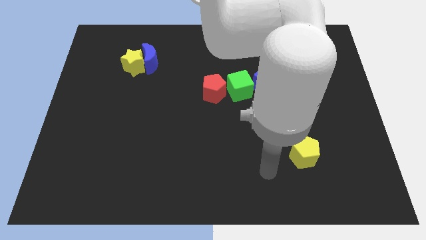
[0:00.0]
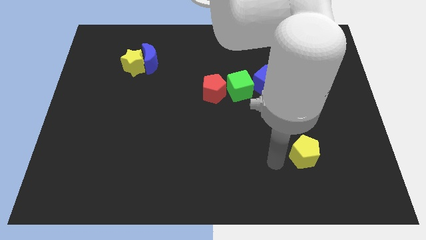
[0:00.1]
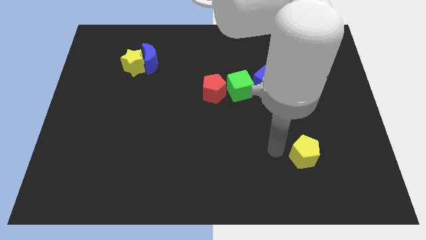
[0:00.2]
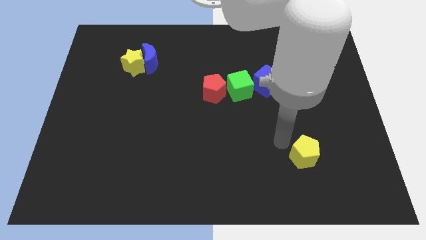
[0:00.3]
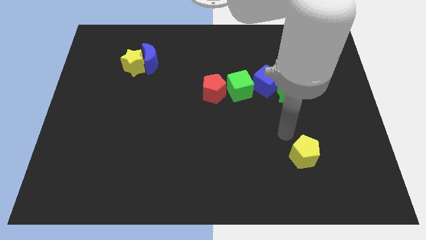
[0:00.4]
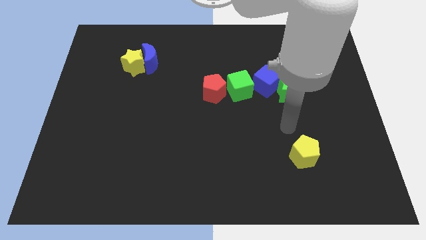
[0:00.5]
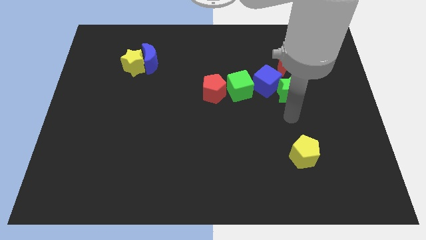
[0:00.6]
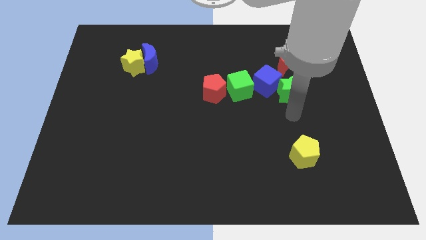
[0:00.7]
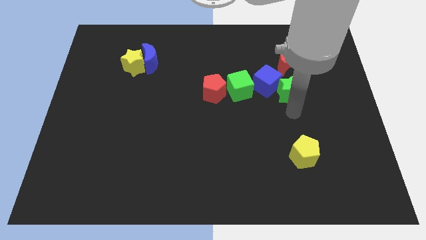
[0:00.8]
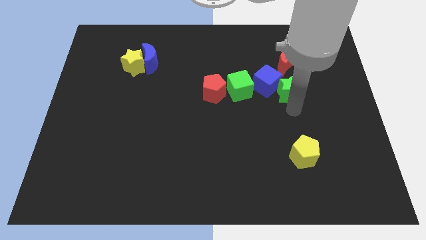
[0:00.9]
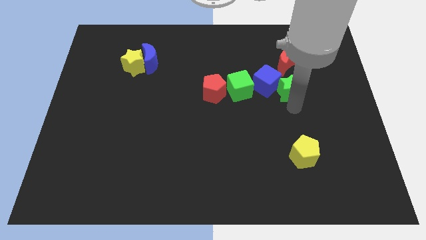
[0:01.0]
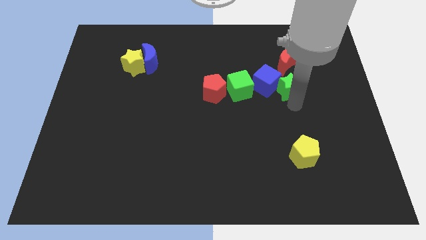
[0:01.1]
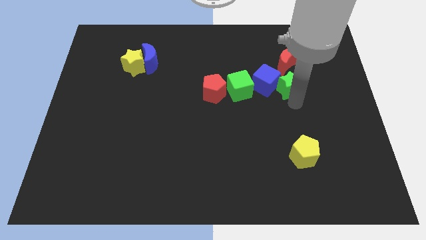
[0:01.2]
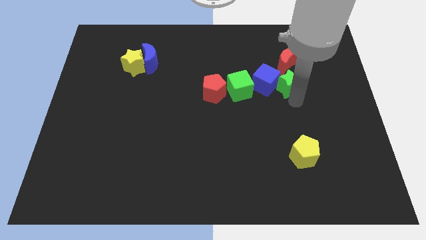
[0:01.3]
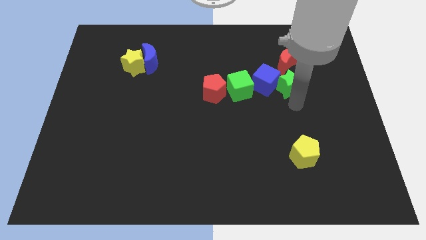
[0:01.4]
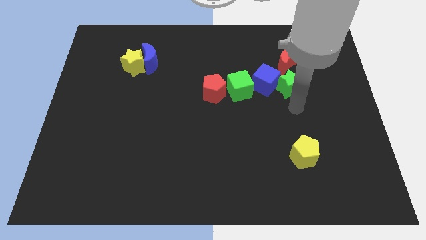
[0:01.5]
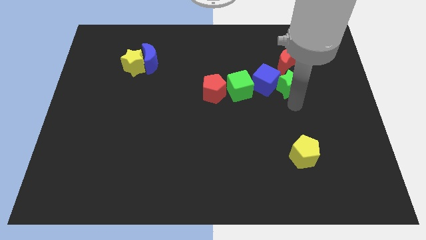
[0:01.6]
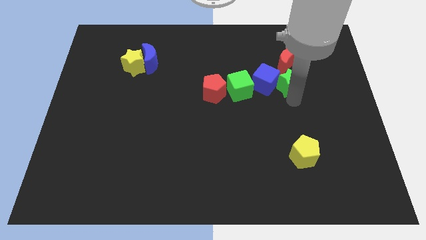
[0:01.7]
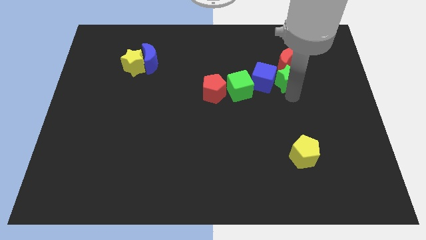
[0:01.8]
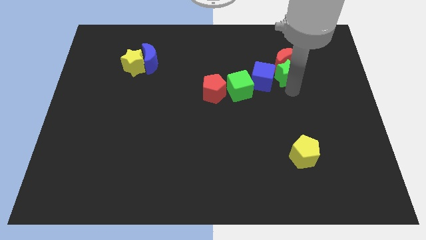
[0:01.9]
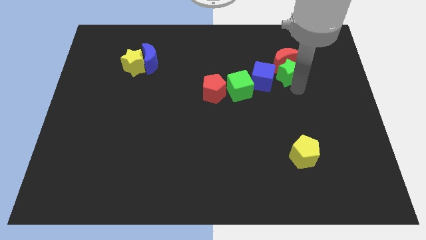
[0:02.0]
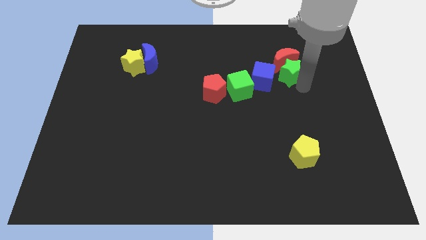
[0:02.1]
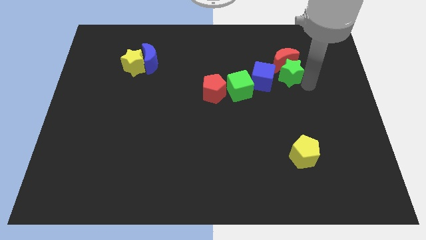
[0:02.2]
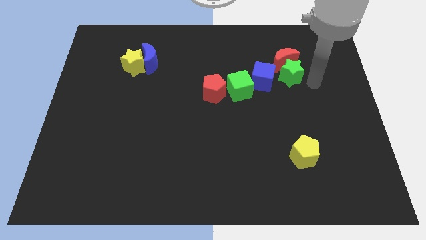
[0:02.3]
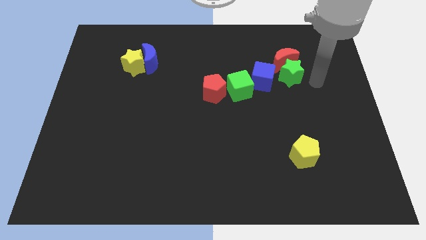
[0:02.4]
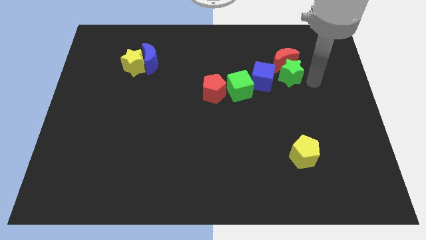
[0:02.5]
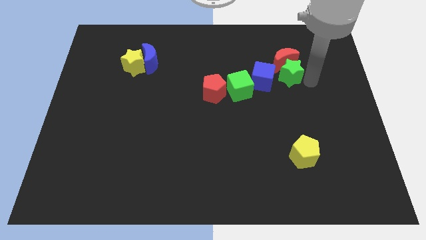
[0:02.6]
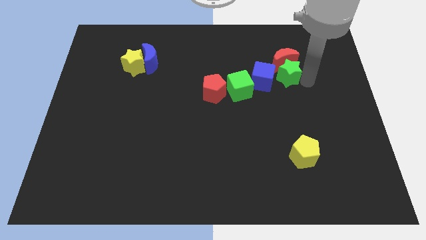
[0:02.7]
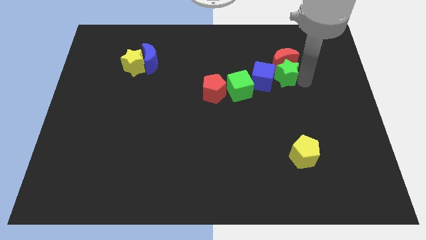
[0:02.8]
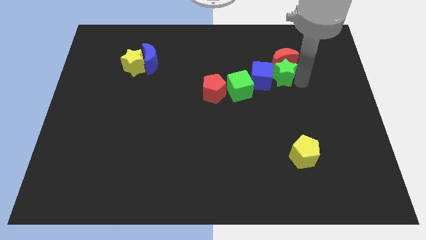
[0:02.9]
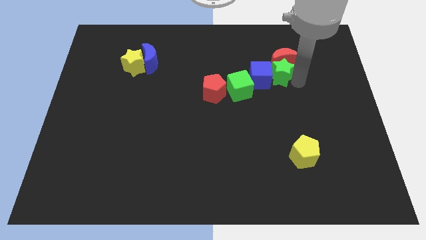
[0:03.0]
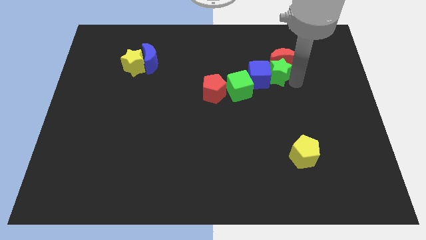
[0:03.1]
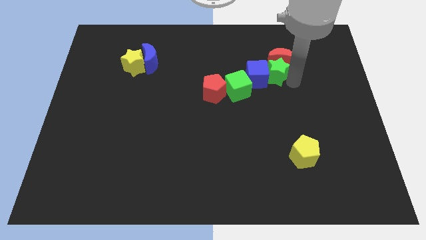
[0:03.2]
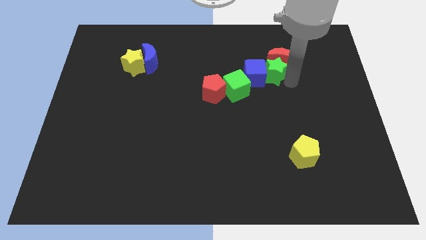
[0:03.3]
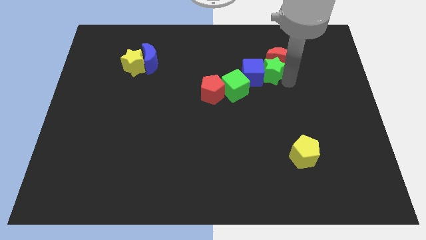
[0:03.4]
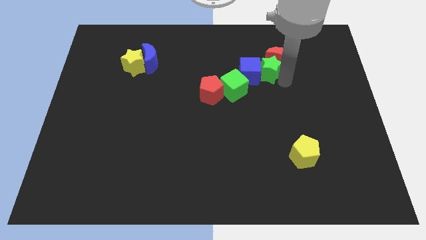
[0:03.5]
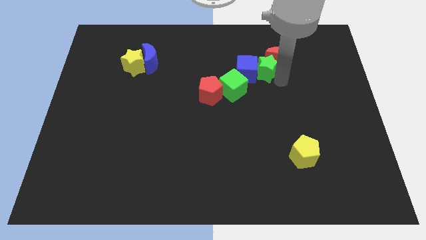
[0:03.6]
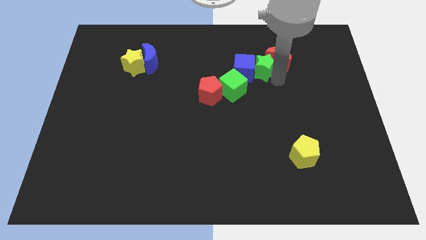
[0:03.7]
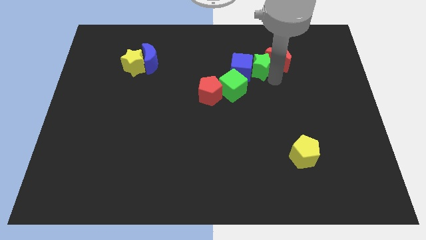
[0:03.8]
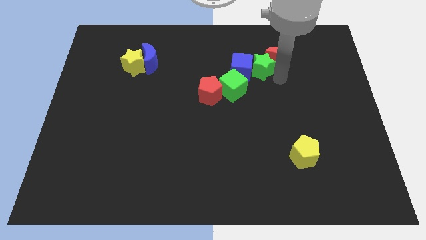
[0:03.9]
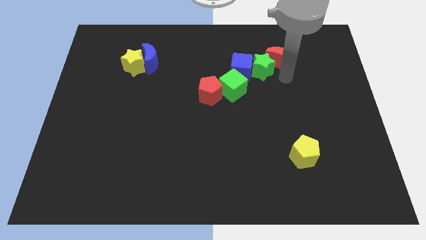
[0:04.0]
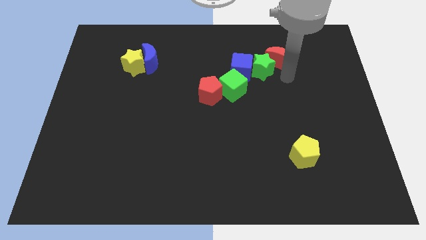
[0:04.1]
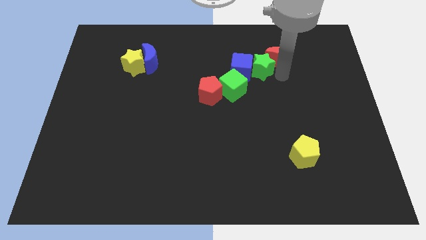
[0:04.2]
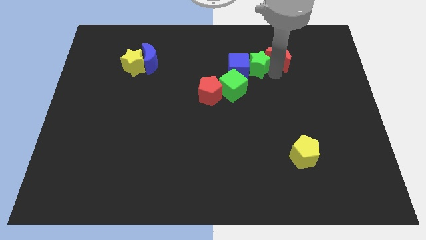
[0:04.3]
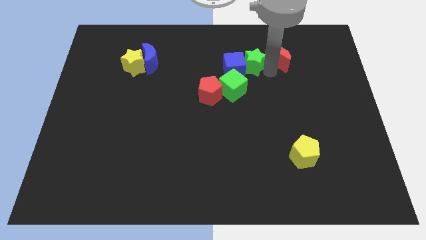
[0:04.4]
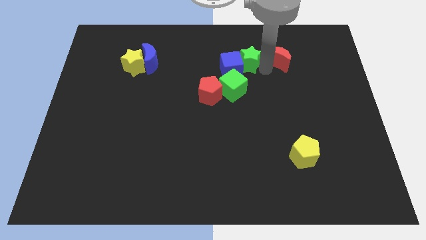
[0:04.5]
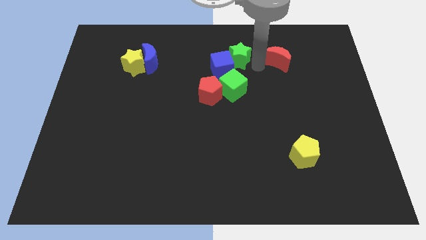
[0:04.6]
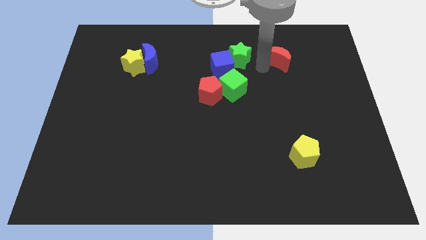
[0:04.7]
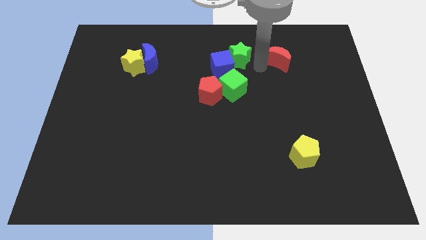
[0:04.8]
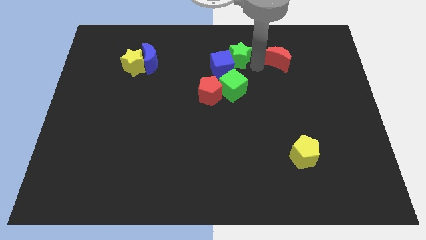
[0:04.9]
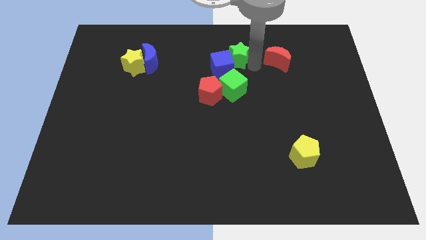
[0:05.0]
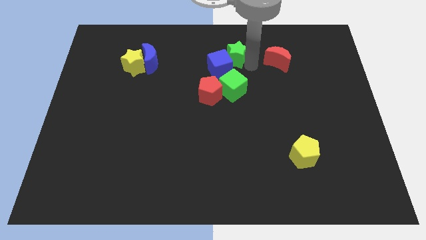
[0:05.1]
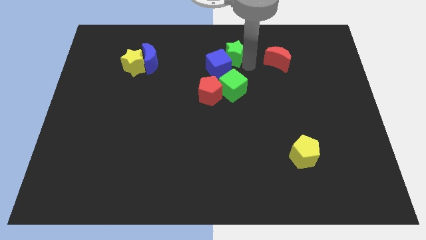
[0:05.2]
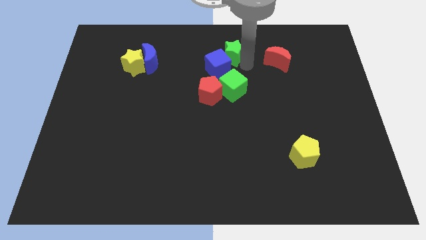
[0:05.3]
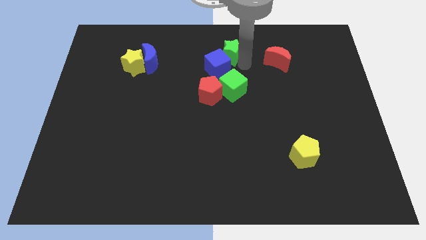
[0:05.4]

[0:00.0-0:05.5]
move the green star to the top side

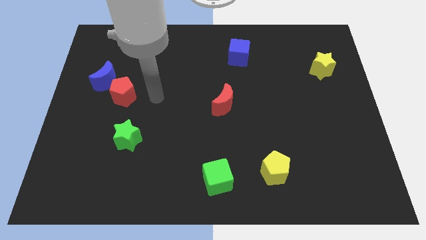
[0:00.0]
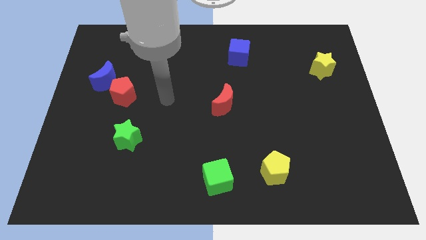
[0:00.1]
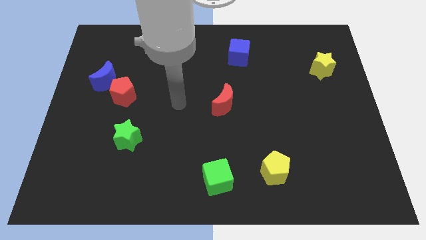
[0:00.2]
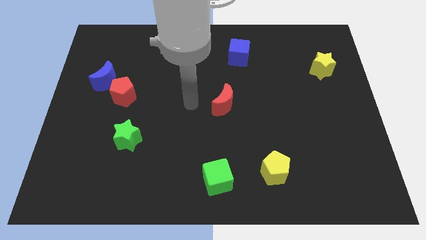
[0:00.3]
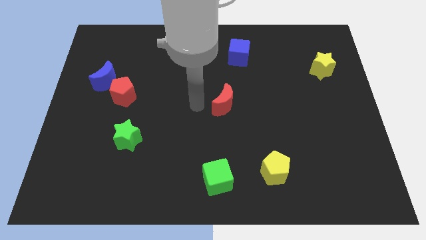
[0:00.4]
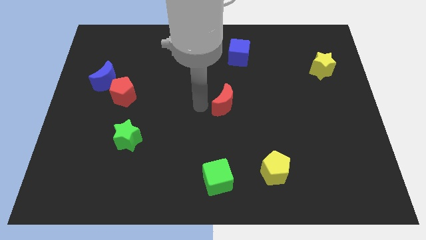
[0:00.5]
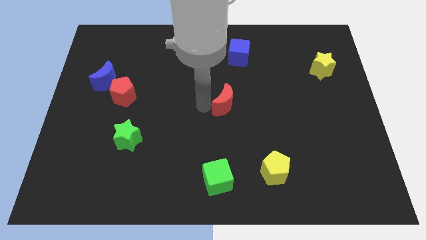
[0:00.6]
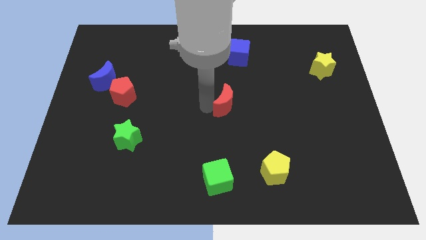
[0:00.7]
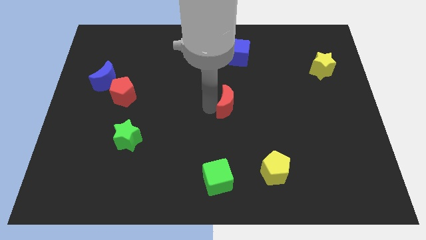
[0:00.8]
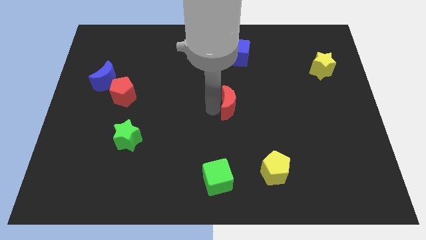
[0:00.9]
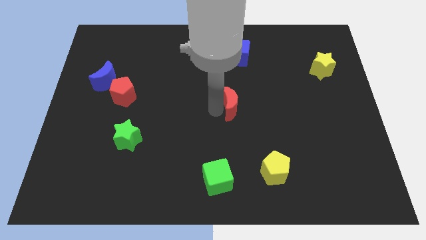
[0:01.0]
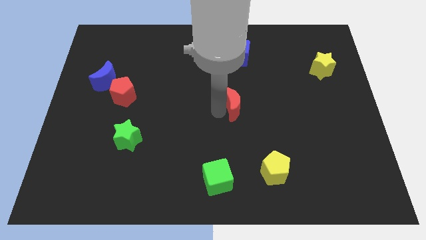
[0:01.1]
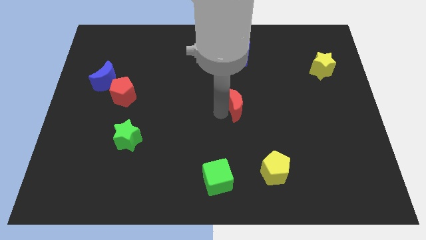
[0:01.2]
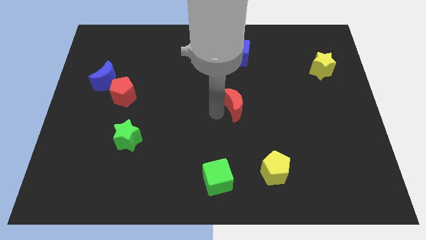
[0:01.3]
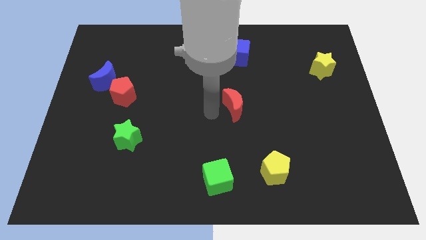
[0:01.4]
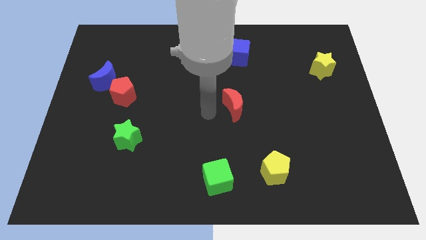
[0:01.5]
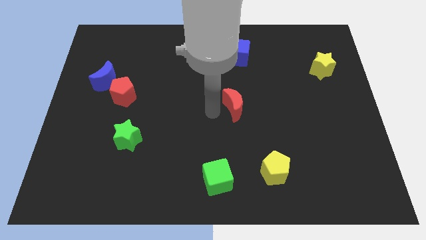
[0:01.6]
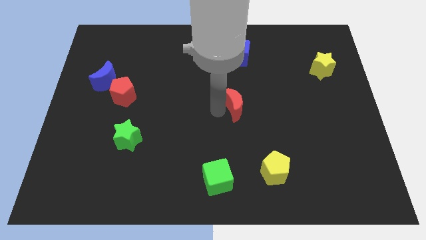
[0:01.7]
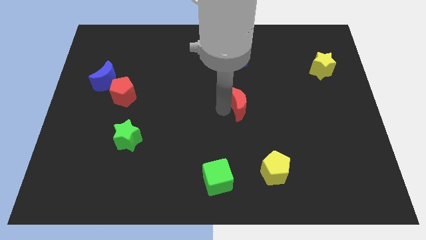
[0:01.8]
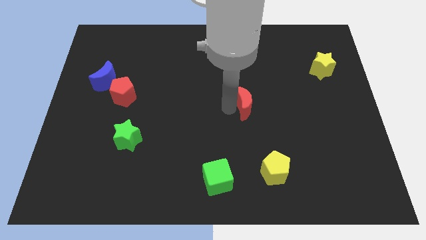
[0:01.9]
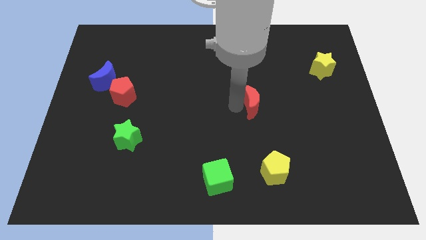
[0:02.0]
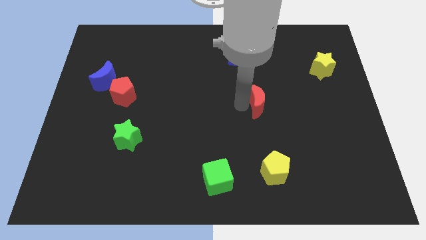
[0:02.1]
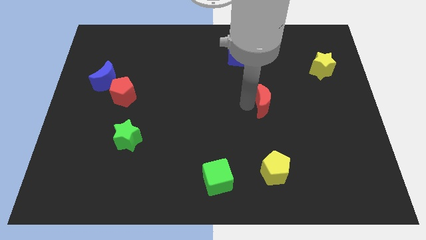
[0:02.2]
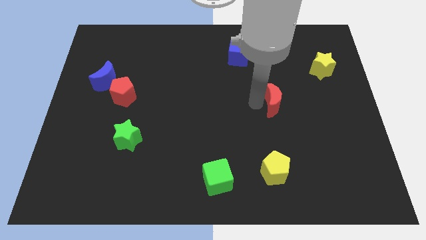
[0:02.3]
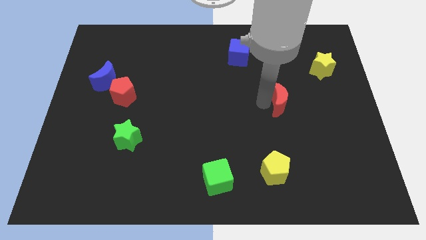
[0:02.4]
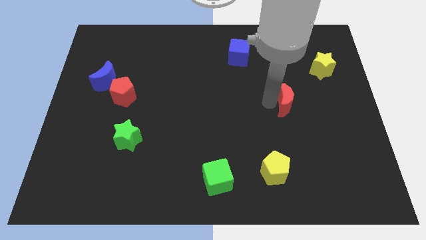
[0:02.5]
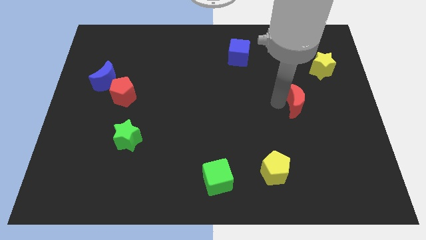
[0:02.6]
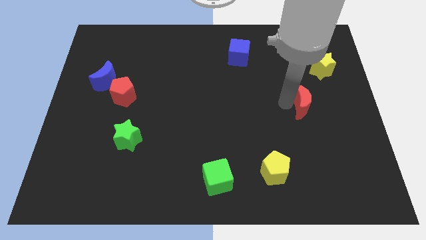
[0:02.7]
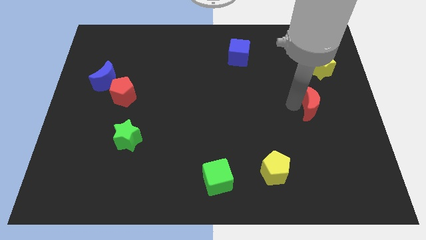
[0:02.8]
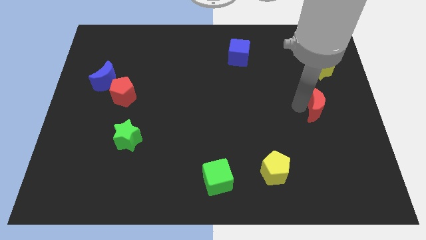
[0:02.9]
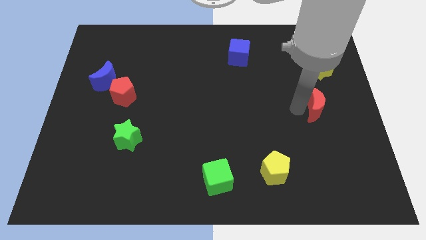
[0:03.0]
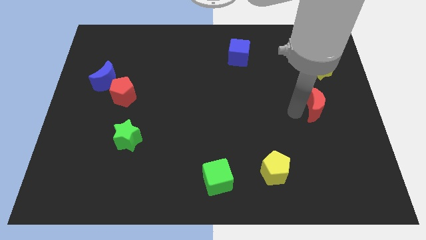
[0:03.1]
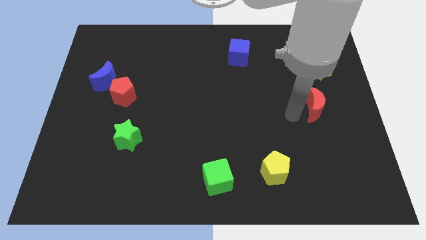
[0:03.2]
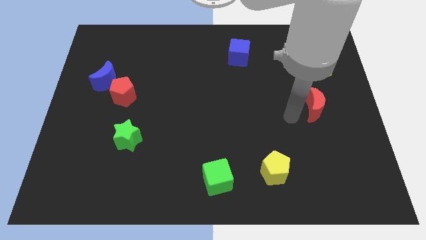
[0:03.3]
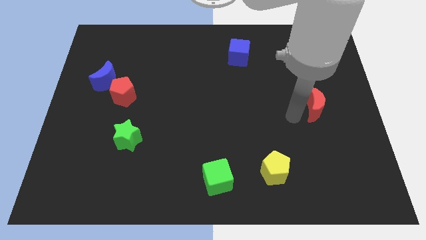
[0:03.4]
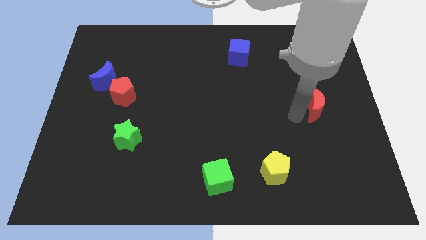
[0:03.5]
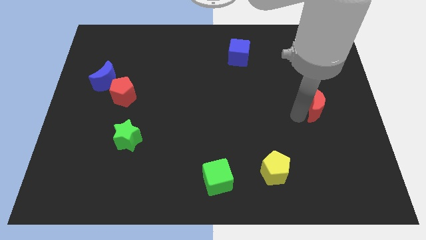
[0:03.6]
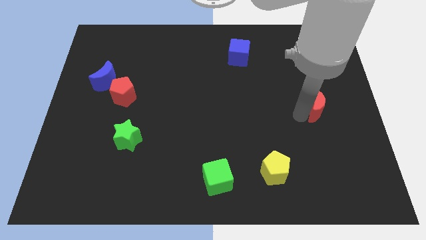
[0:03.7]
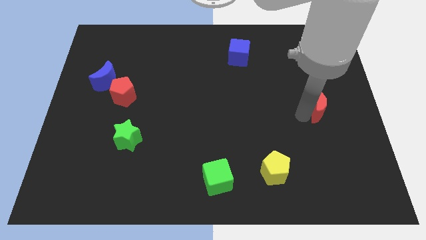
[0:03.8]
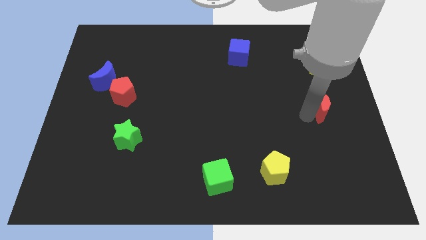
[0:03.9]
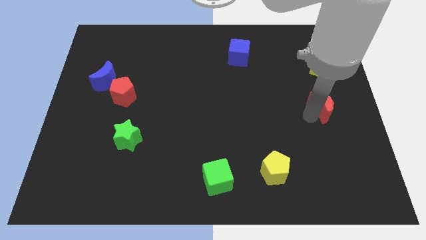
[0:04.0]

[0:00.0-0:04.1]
slide the red moon to the center right
